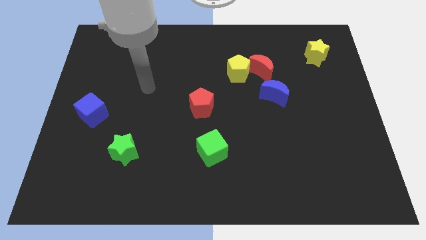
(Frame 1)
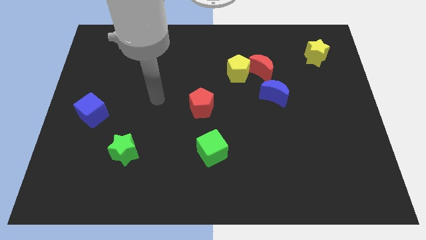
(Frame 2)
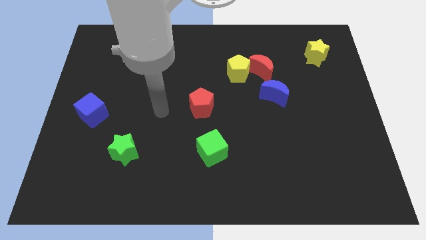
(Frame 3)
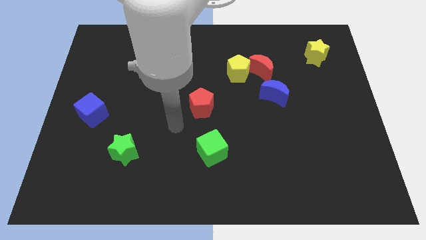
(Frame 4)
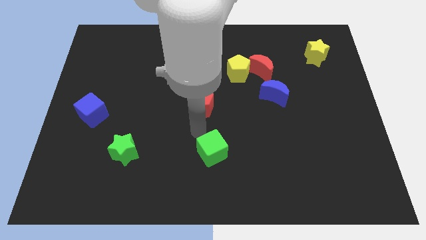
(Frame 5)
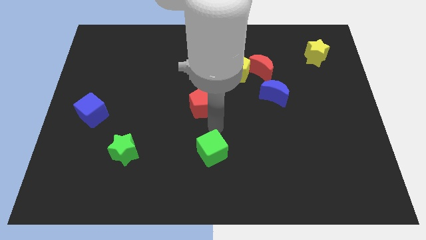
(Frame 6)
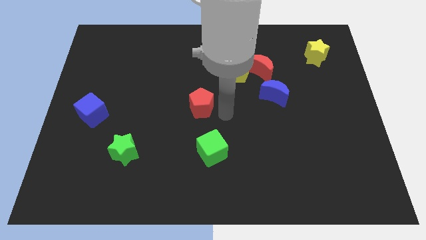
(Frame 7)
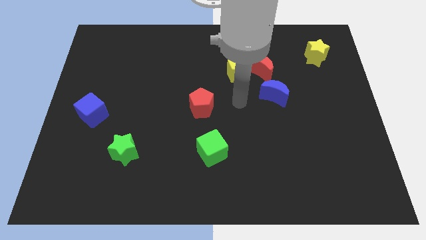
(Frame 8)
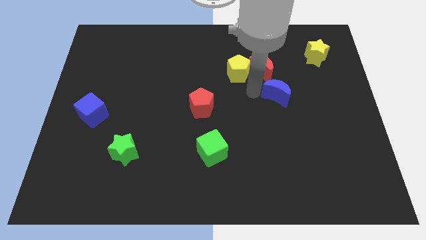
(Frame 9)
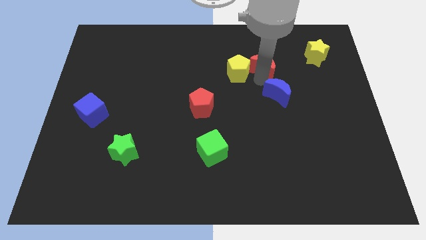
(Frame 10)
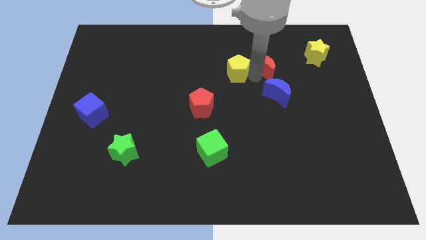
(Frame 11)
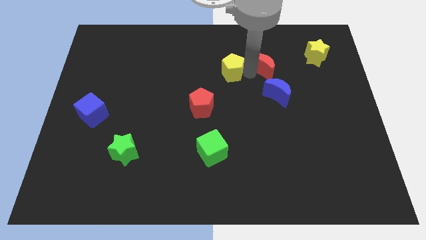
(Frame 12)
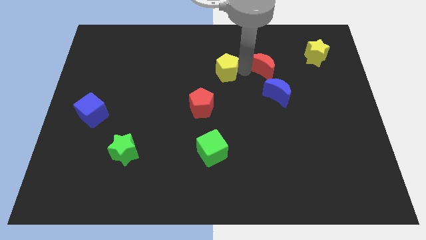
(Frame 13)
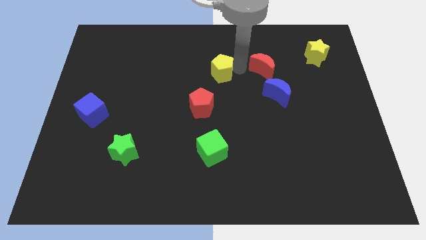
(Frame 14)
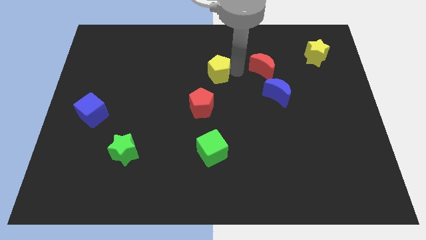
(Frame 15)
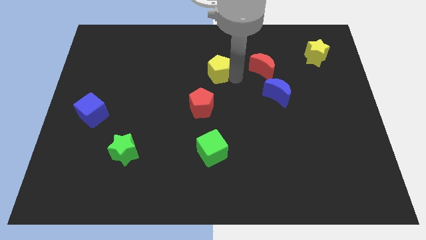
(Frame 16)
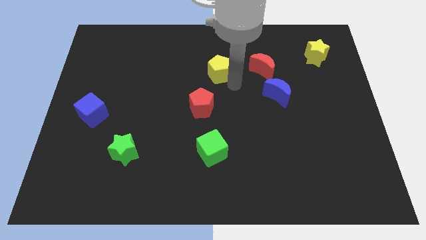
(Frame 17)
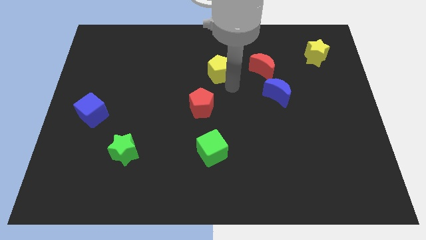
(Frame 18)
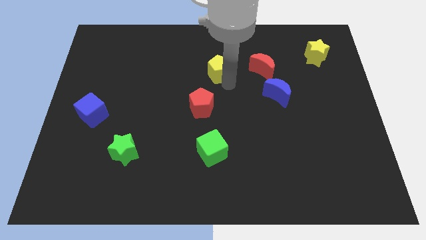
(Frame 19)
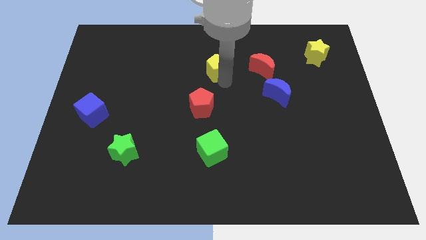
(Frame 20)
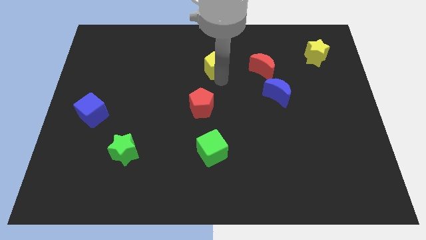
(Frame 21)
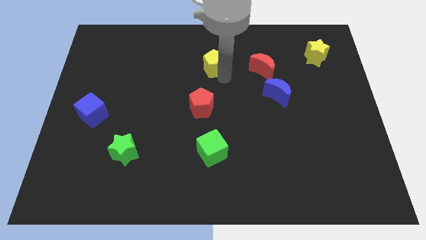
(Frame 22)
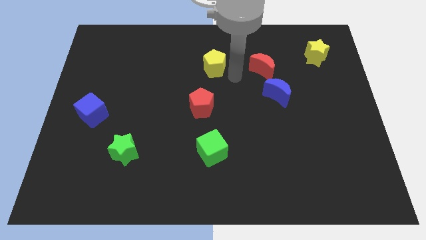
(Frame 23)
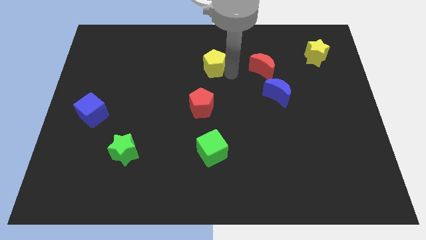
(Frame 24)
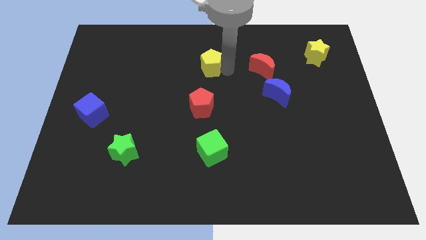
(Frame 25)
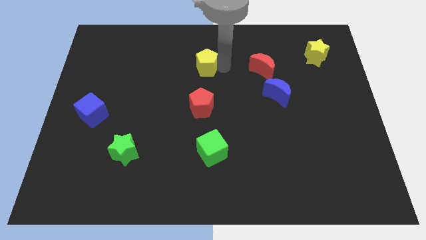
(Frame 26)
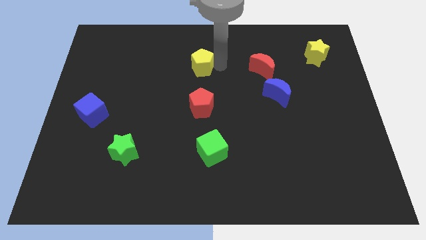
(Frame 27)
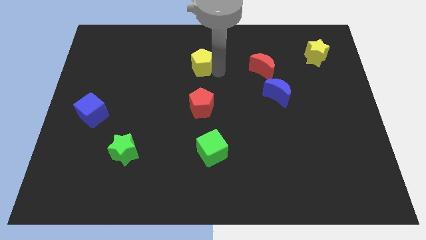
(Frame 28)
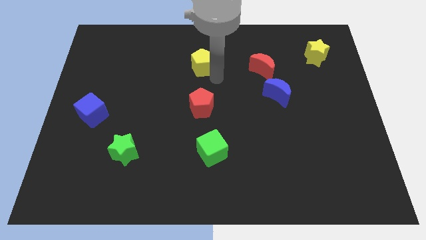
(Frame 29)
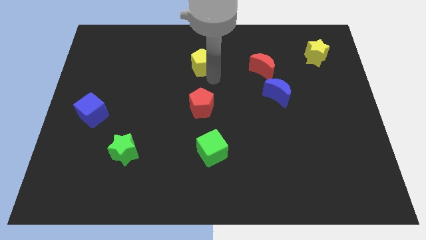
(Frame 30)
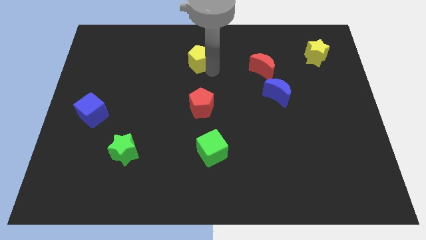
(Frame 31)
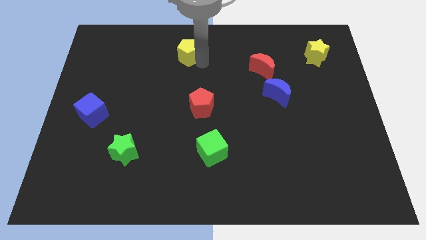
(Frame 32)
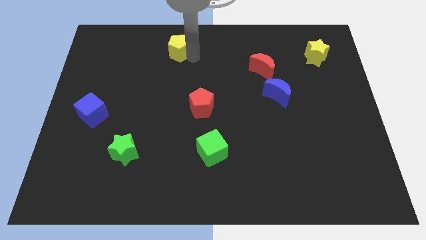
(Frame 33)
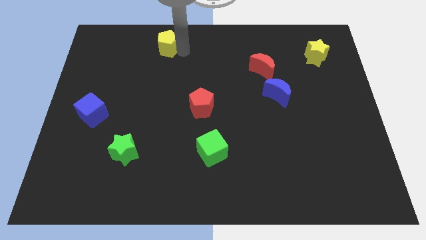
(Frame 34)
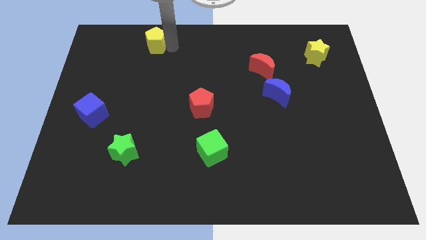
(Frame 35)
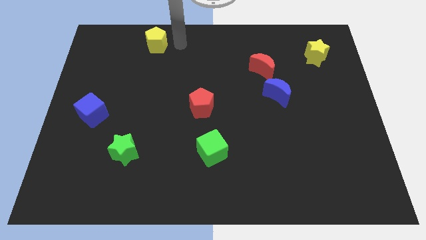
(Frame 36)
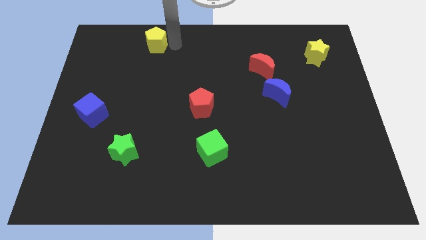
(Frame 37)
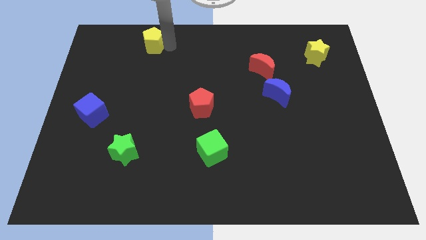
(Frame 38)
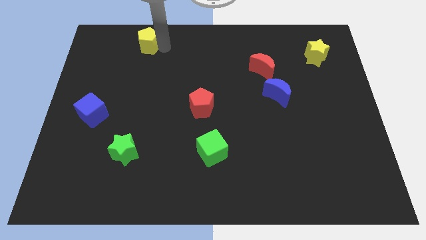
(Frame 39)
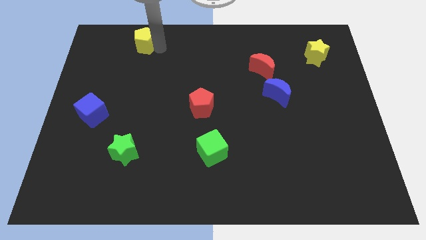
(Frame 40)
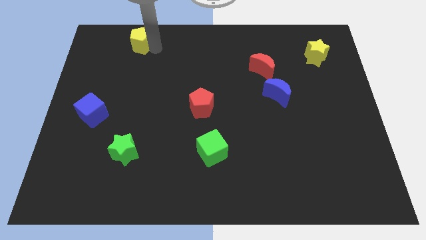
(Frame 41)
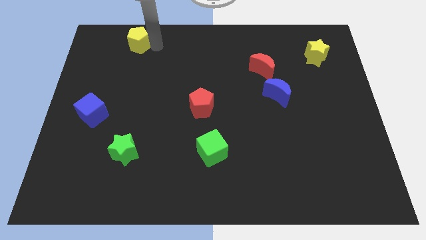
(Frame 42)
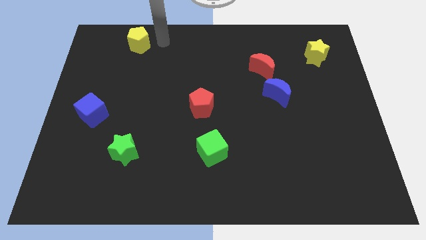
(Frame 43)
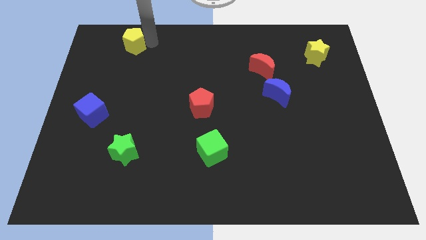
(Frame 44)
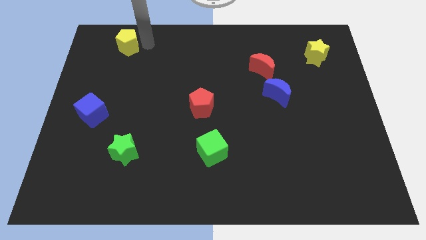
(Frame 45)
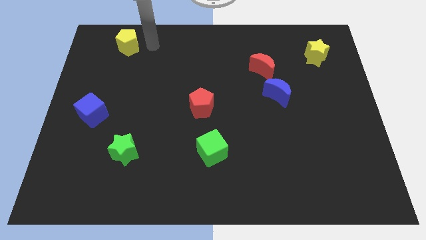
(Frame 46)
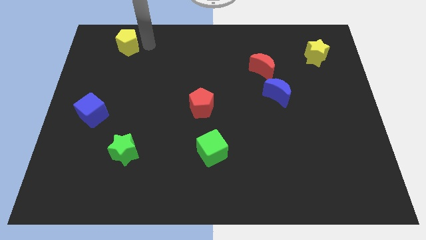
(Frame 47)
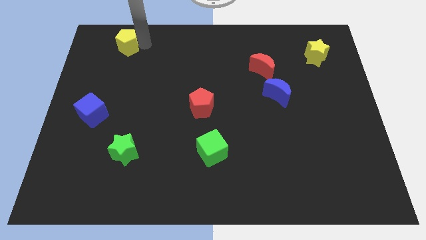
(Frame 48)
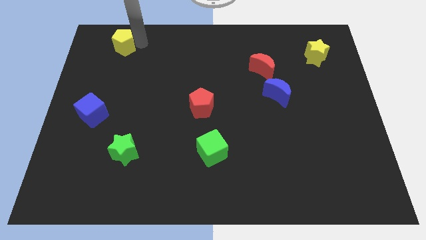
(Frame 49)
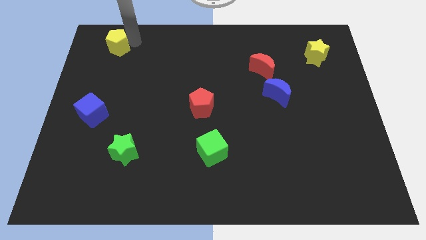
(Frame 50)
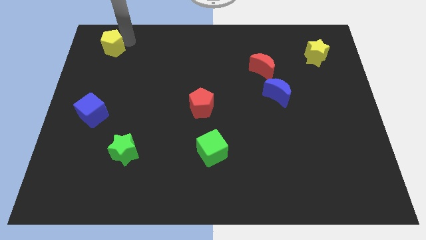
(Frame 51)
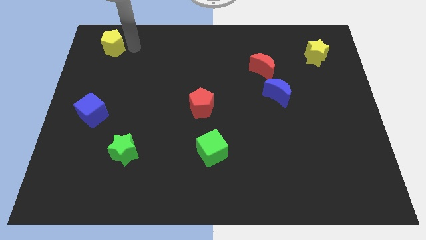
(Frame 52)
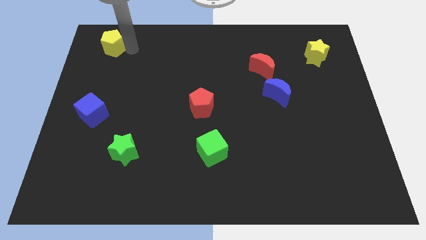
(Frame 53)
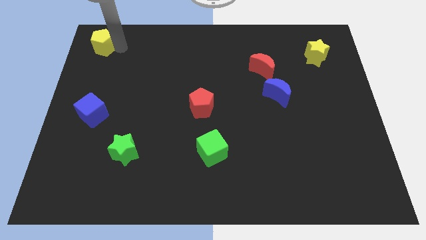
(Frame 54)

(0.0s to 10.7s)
put the yellow pentagon to the top left corner

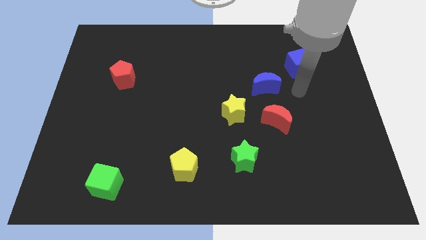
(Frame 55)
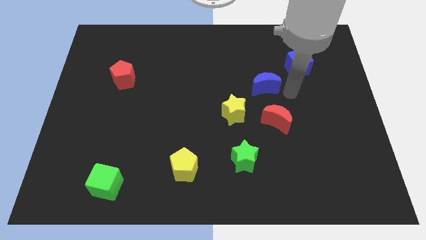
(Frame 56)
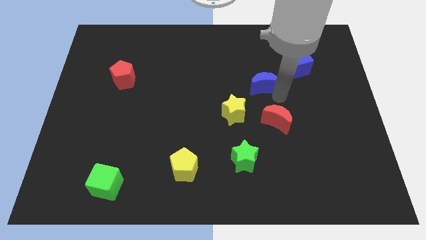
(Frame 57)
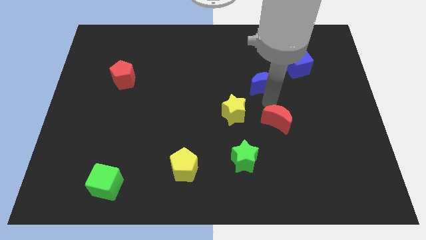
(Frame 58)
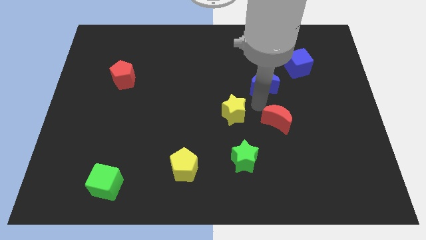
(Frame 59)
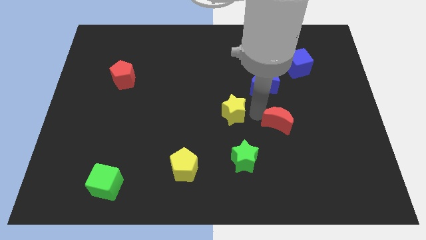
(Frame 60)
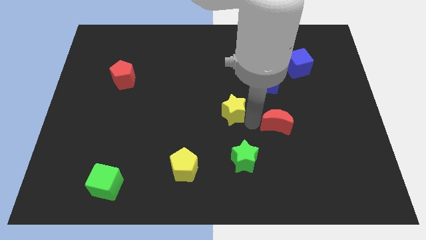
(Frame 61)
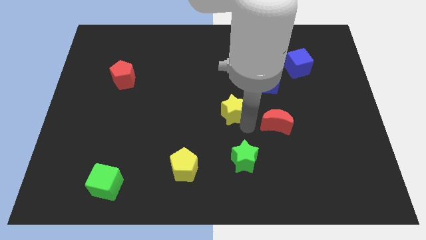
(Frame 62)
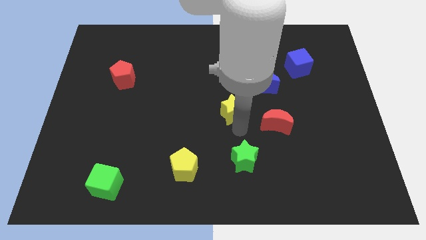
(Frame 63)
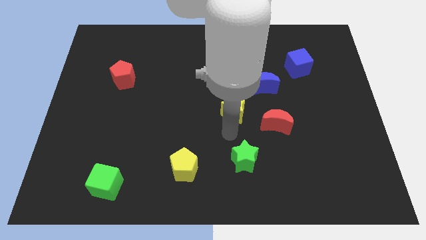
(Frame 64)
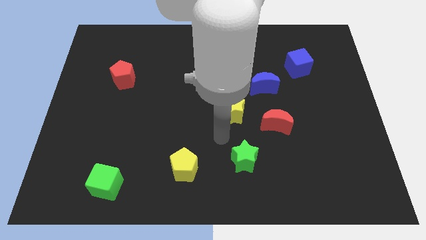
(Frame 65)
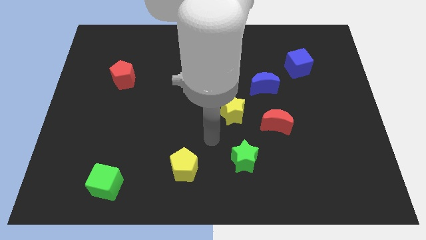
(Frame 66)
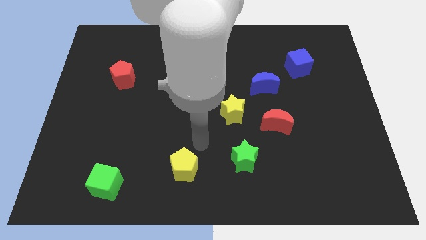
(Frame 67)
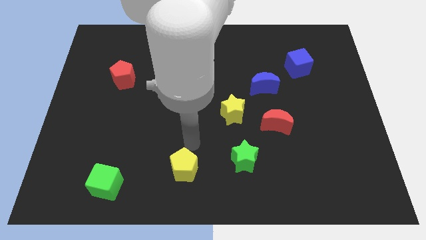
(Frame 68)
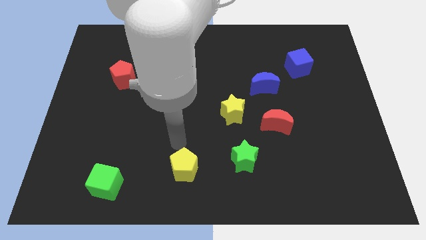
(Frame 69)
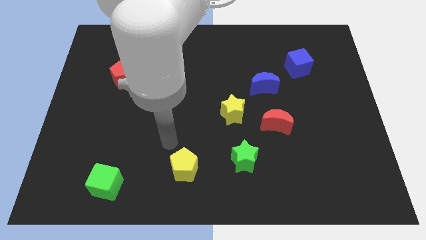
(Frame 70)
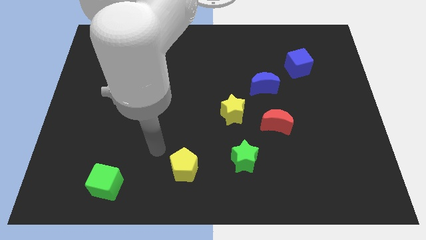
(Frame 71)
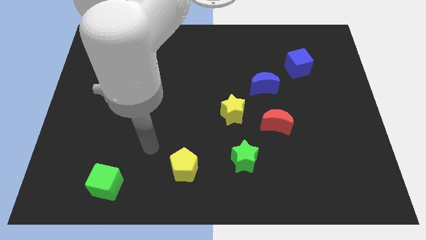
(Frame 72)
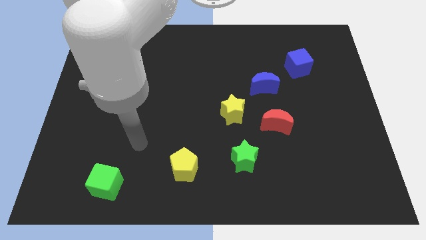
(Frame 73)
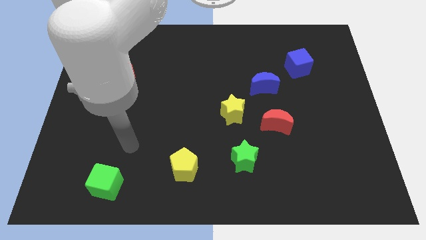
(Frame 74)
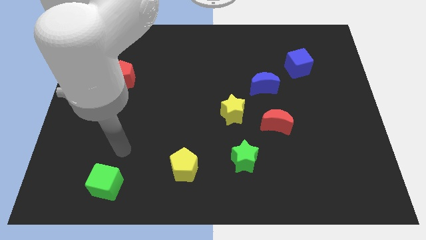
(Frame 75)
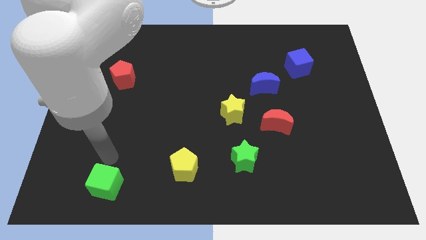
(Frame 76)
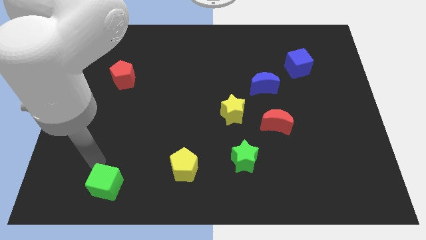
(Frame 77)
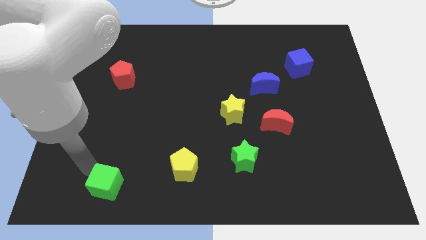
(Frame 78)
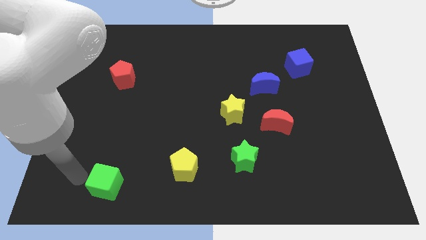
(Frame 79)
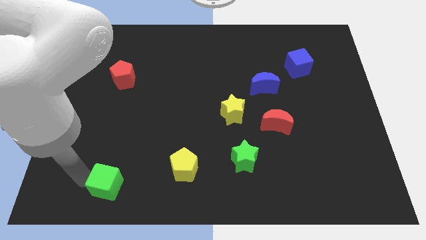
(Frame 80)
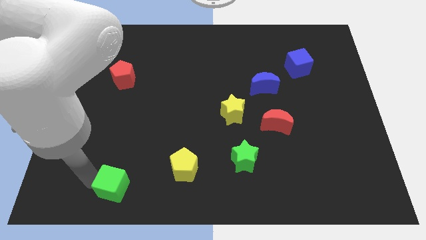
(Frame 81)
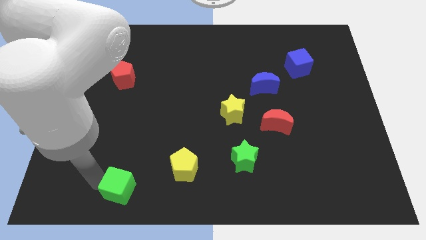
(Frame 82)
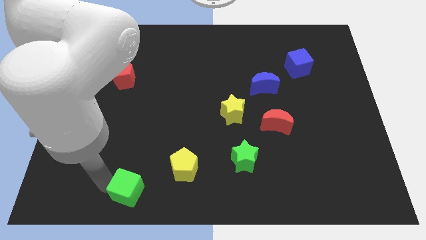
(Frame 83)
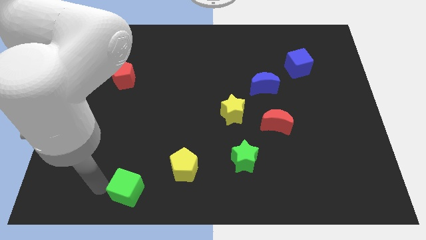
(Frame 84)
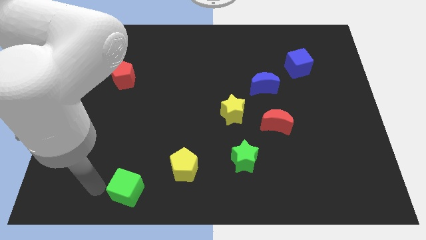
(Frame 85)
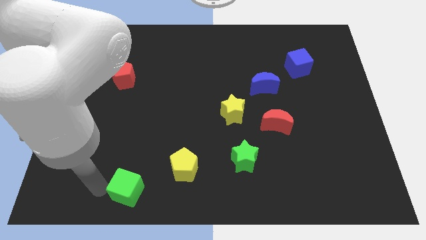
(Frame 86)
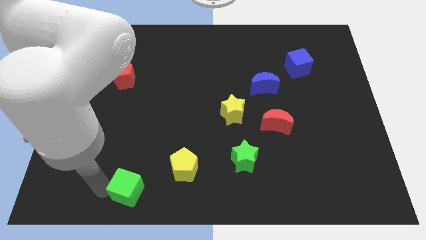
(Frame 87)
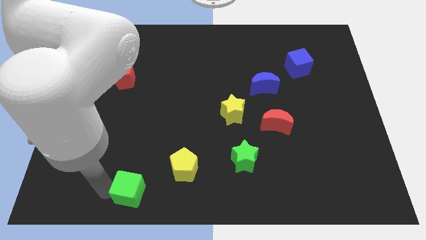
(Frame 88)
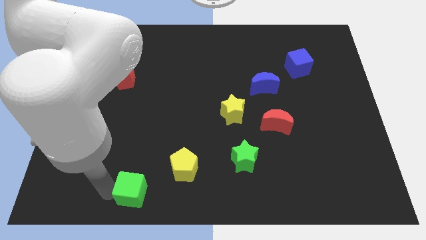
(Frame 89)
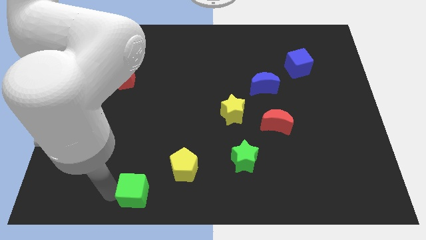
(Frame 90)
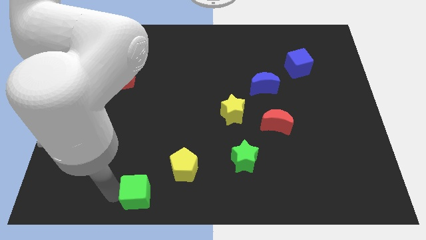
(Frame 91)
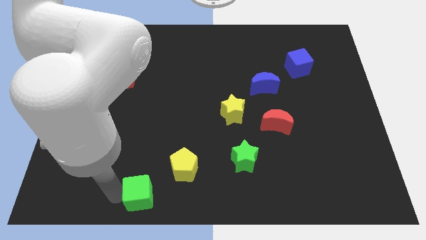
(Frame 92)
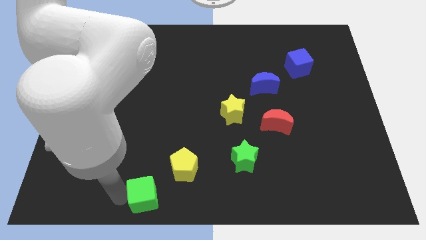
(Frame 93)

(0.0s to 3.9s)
put the green cube to the bottom side
